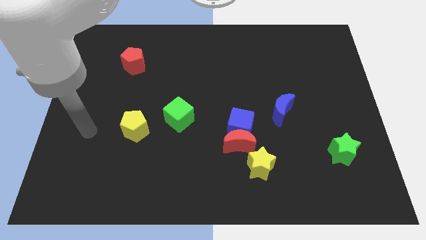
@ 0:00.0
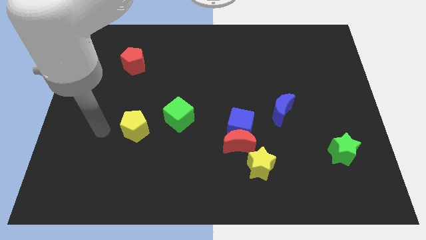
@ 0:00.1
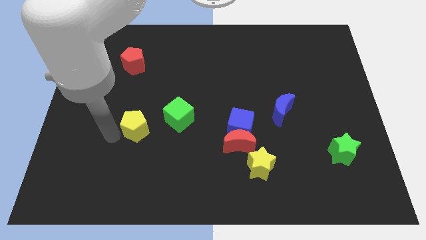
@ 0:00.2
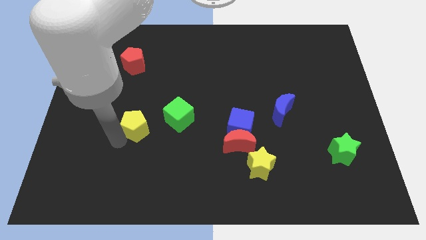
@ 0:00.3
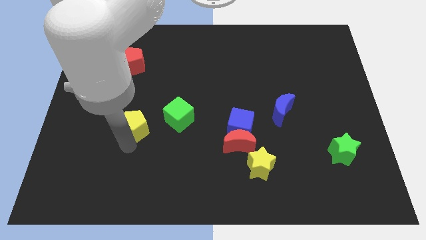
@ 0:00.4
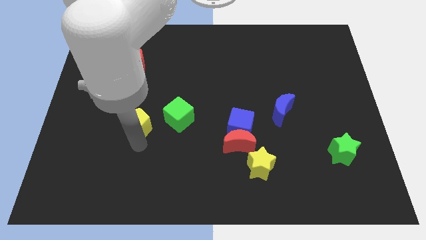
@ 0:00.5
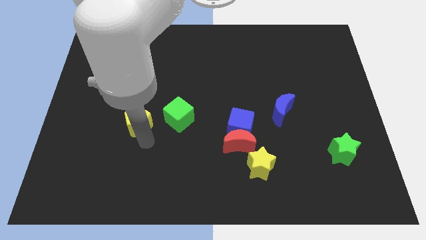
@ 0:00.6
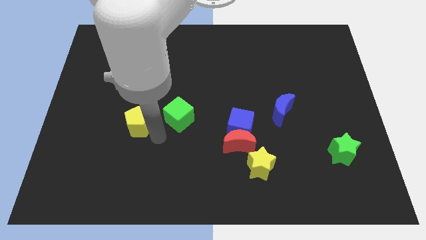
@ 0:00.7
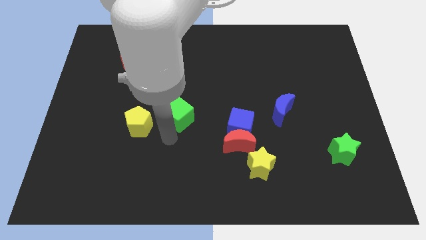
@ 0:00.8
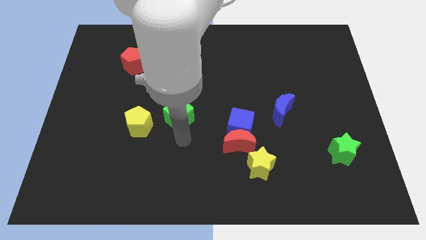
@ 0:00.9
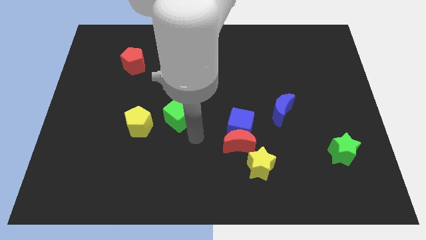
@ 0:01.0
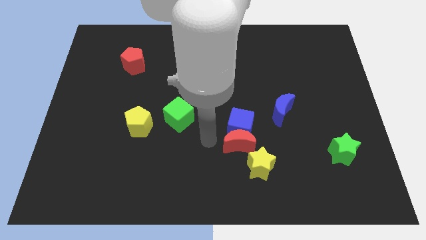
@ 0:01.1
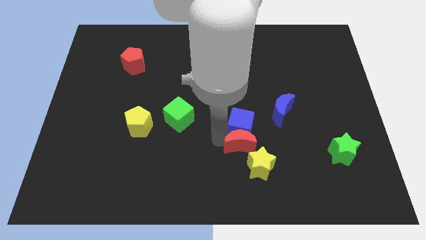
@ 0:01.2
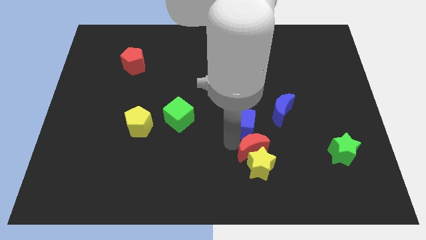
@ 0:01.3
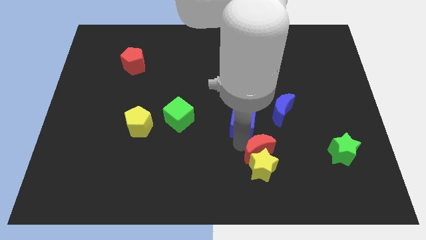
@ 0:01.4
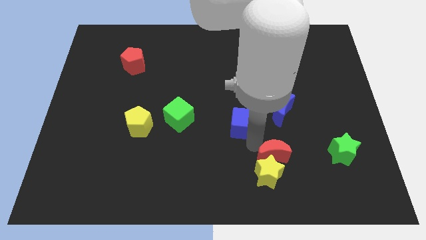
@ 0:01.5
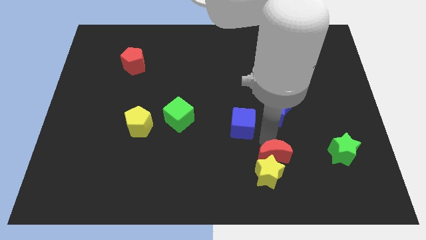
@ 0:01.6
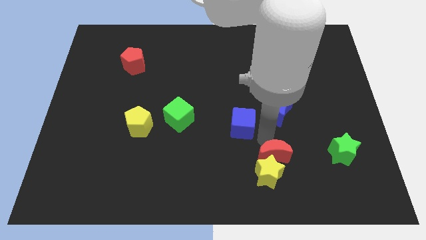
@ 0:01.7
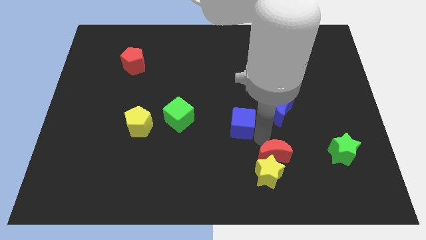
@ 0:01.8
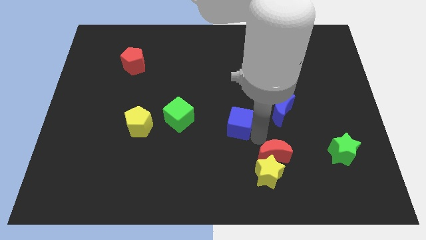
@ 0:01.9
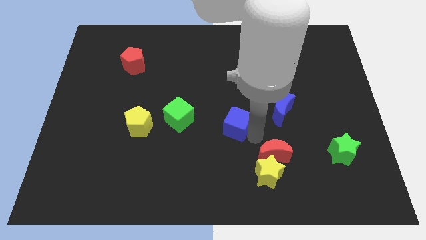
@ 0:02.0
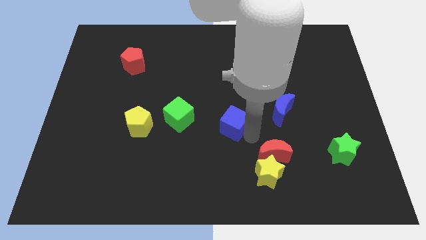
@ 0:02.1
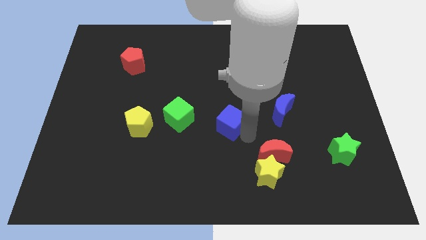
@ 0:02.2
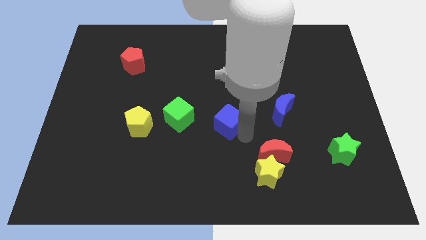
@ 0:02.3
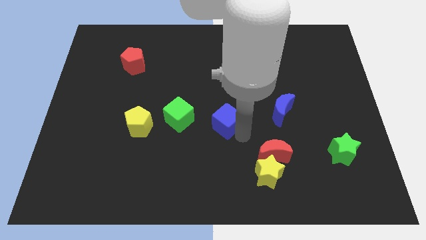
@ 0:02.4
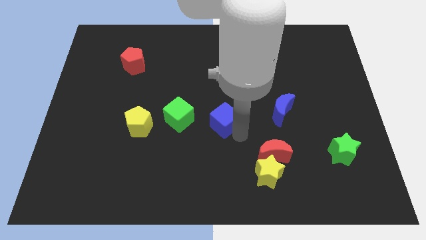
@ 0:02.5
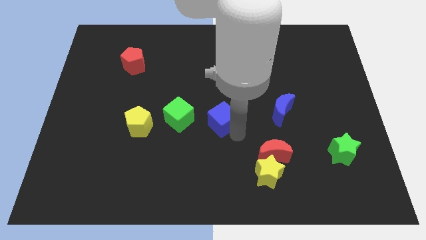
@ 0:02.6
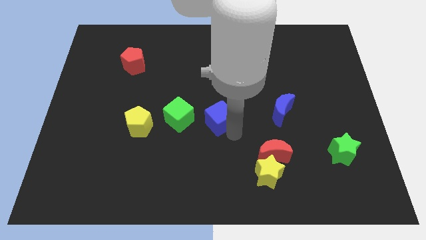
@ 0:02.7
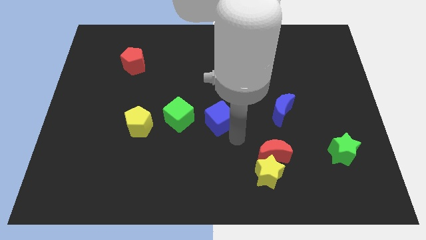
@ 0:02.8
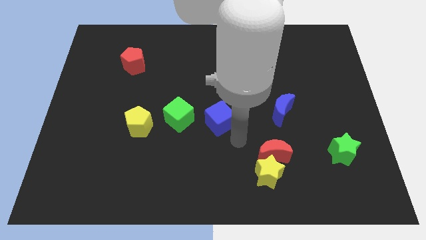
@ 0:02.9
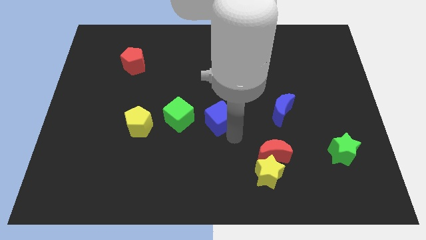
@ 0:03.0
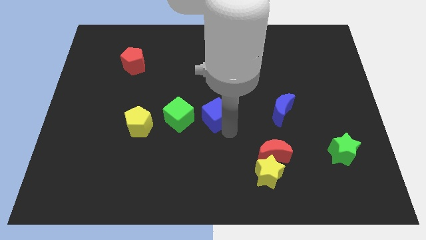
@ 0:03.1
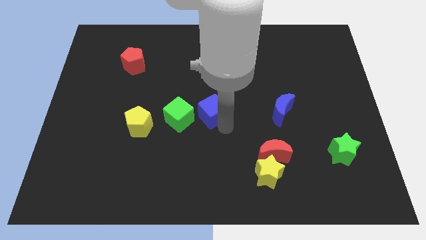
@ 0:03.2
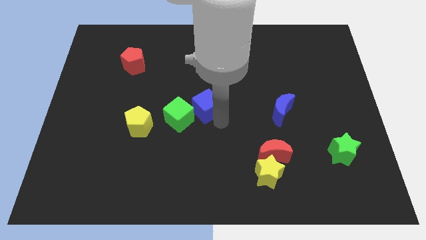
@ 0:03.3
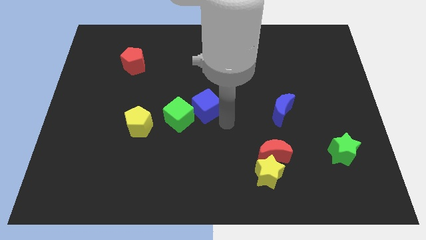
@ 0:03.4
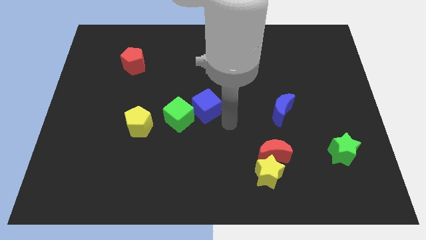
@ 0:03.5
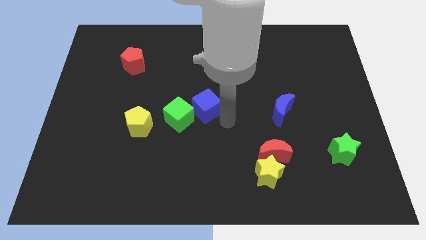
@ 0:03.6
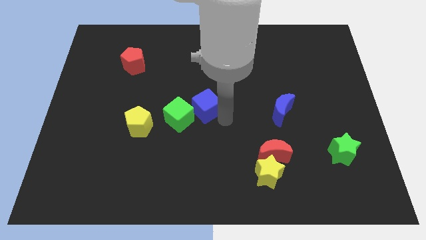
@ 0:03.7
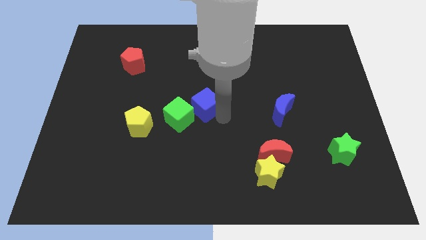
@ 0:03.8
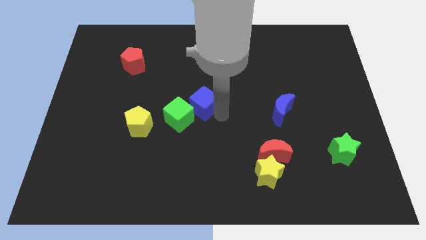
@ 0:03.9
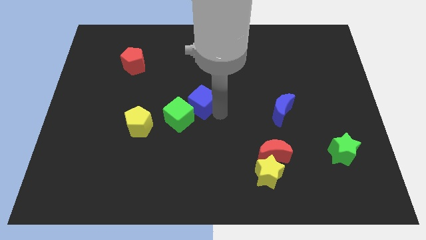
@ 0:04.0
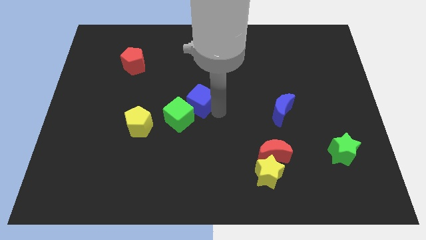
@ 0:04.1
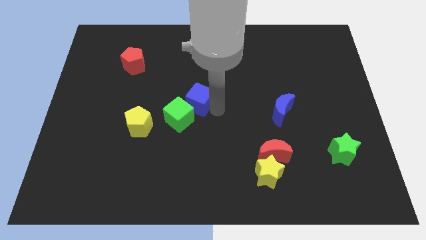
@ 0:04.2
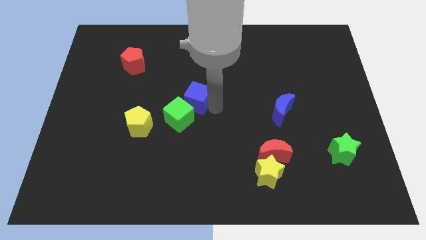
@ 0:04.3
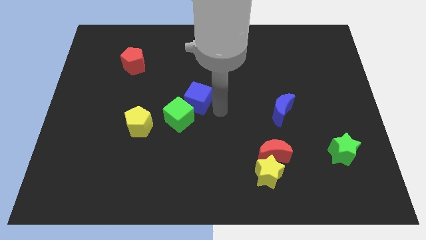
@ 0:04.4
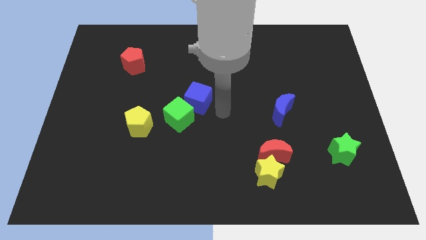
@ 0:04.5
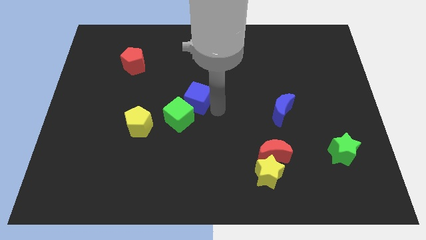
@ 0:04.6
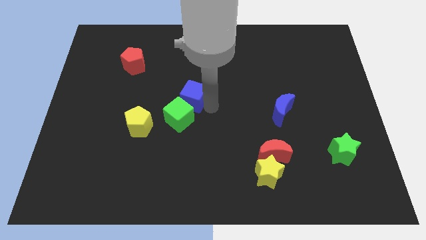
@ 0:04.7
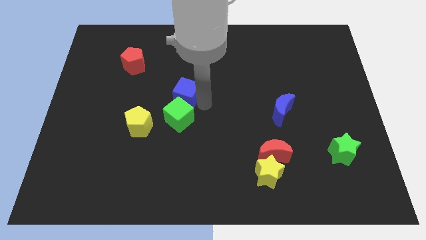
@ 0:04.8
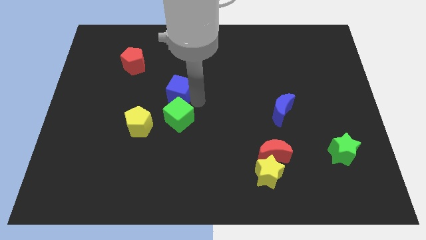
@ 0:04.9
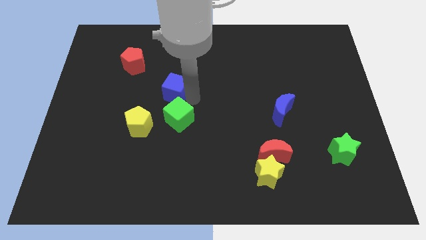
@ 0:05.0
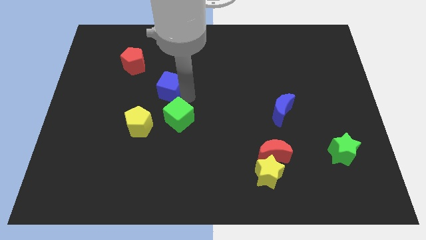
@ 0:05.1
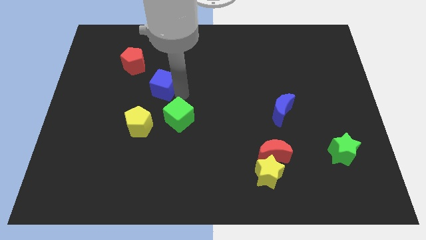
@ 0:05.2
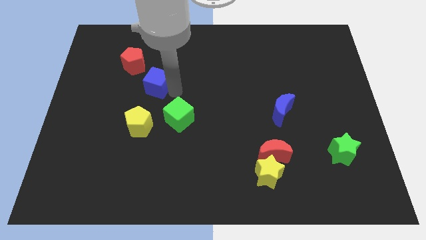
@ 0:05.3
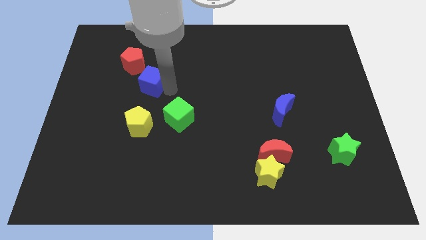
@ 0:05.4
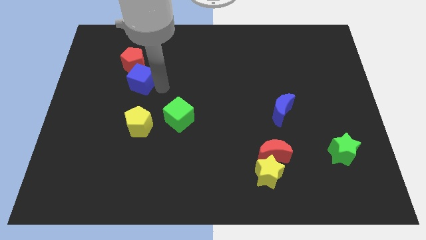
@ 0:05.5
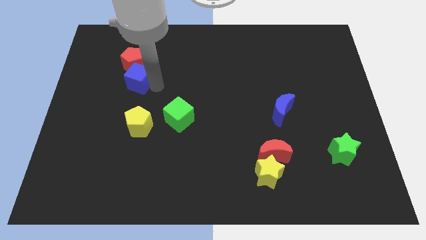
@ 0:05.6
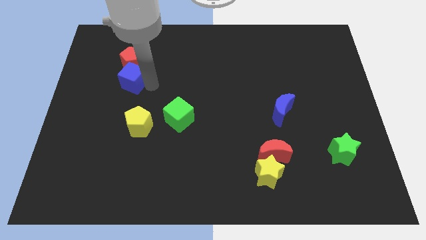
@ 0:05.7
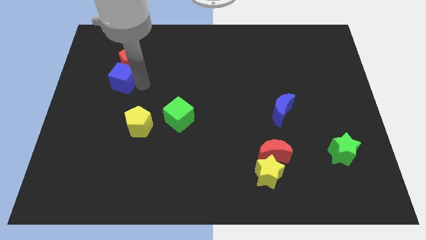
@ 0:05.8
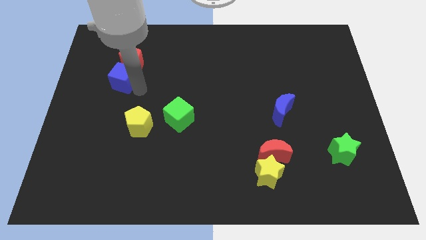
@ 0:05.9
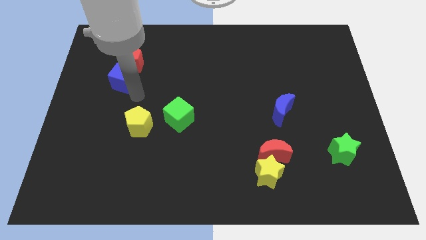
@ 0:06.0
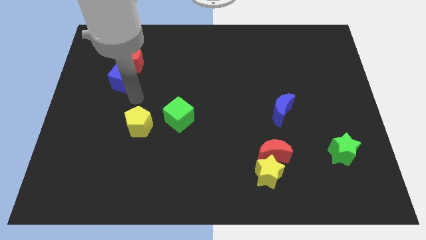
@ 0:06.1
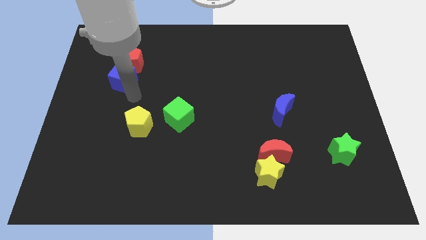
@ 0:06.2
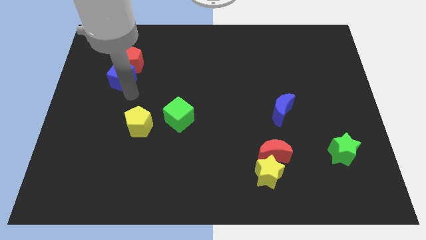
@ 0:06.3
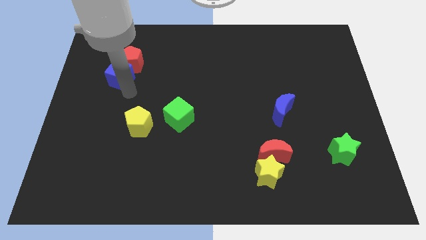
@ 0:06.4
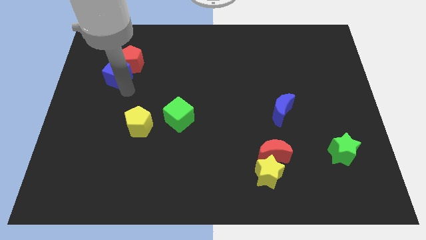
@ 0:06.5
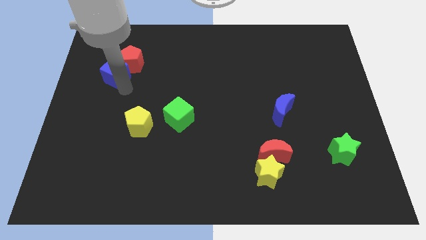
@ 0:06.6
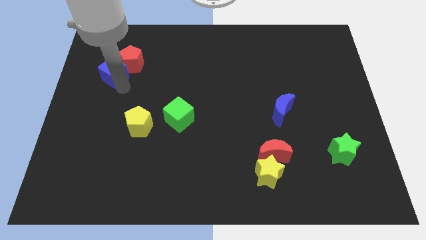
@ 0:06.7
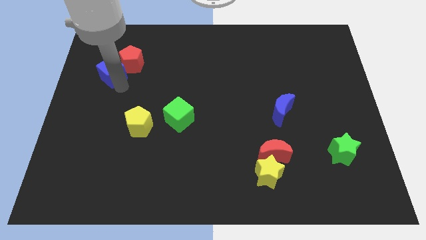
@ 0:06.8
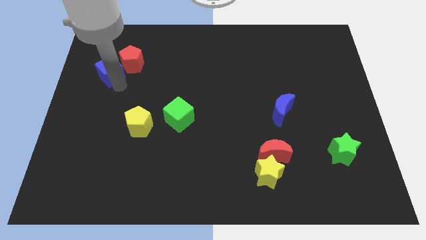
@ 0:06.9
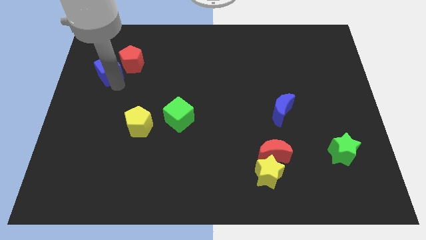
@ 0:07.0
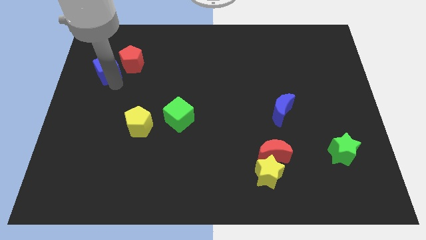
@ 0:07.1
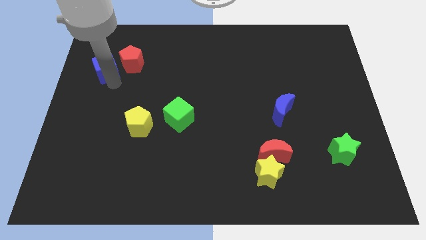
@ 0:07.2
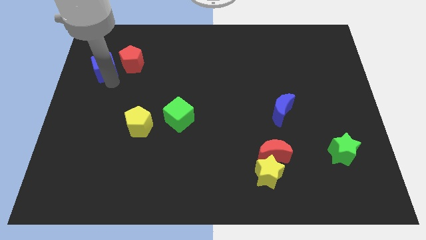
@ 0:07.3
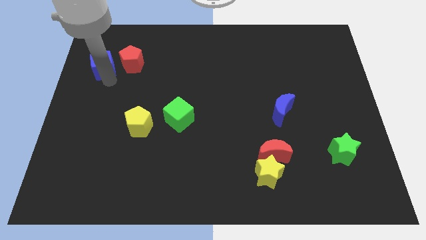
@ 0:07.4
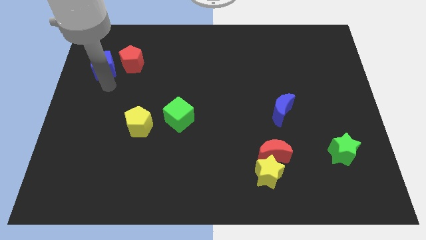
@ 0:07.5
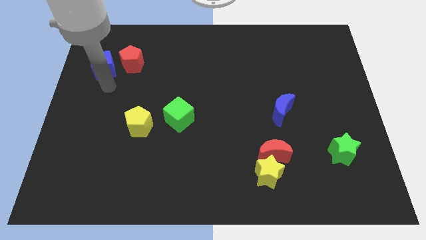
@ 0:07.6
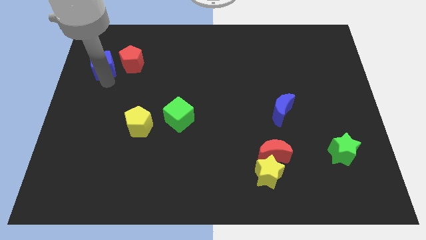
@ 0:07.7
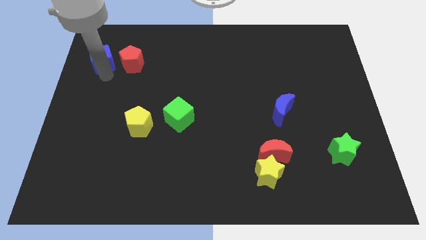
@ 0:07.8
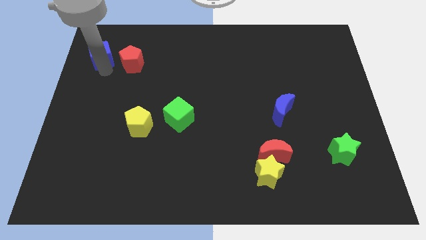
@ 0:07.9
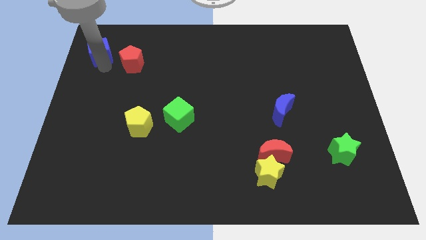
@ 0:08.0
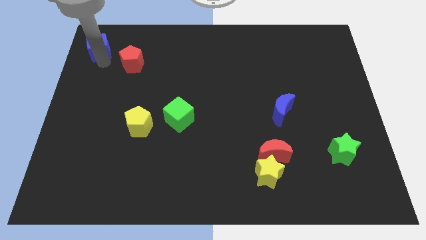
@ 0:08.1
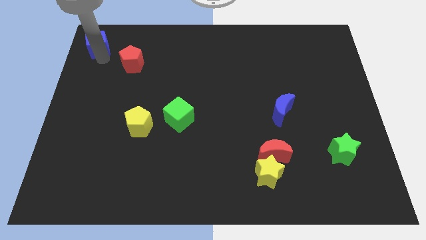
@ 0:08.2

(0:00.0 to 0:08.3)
move the blue cube to the top left corner
